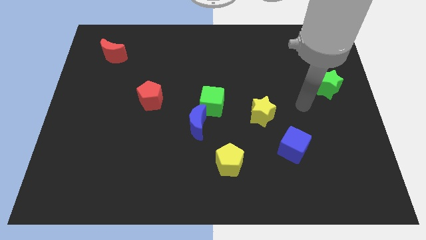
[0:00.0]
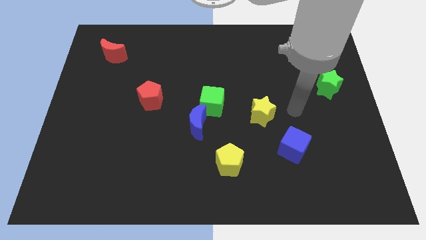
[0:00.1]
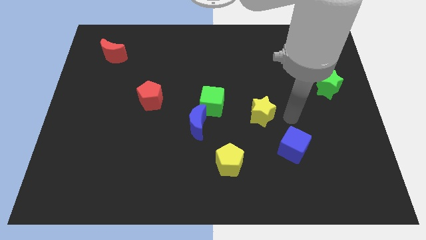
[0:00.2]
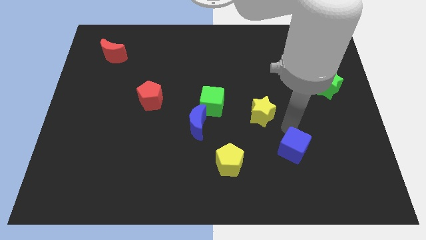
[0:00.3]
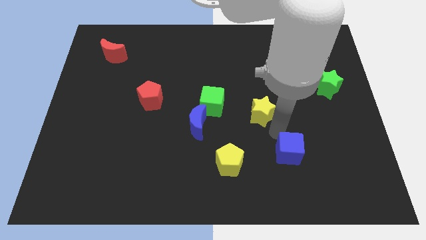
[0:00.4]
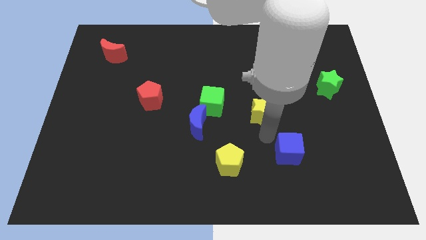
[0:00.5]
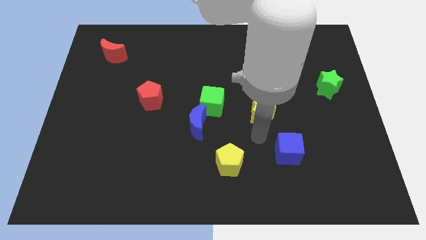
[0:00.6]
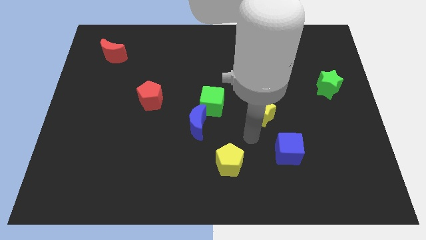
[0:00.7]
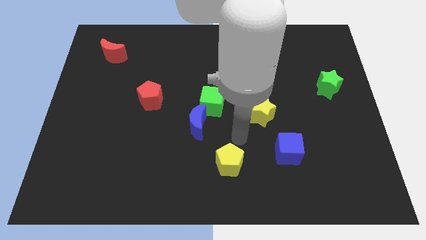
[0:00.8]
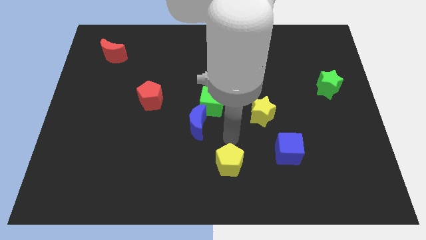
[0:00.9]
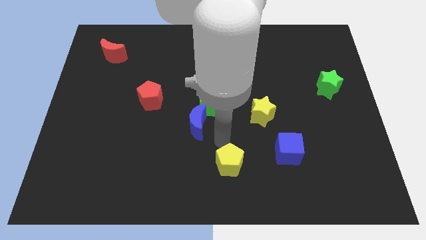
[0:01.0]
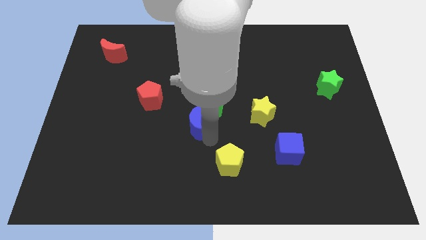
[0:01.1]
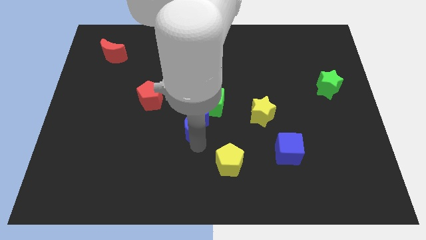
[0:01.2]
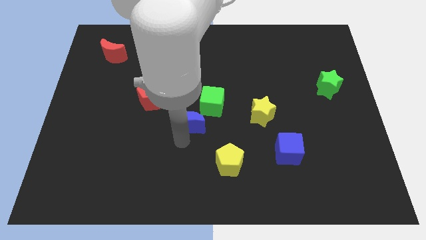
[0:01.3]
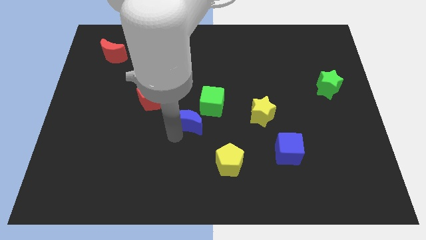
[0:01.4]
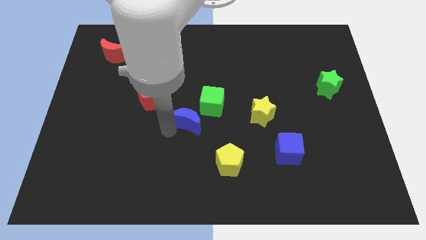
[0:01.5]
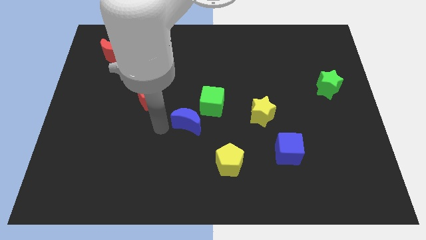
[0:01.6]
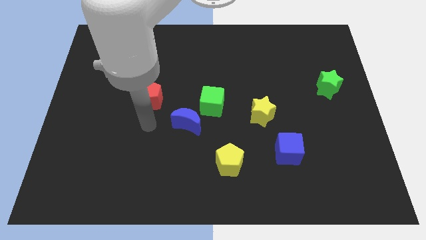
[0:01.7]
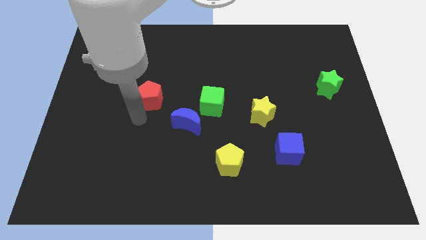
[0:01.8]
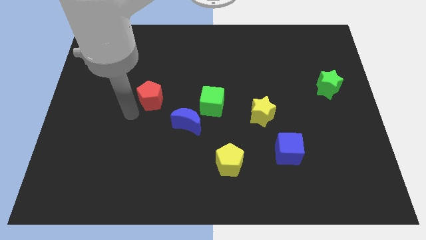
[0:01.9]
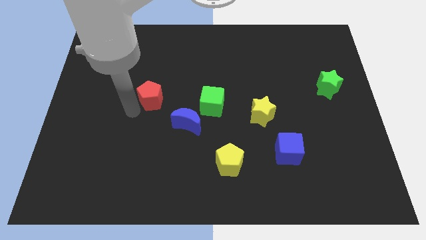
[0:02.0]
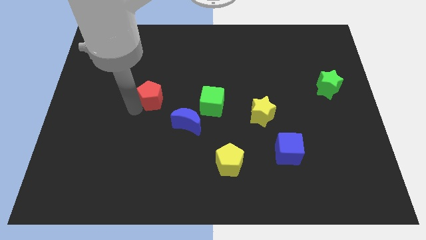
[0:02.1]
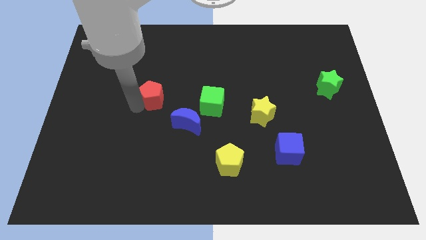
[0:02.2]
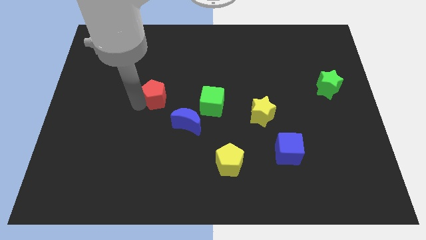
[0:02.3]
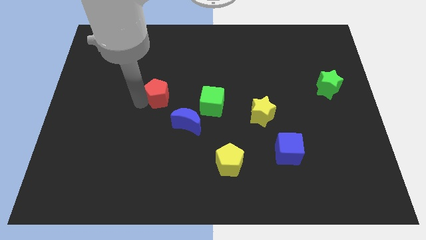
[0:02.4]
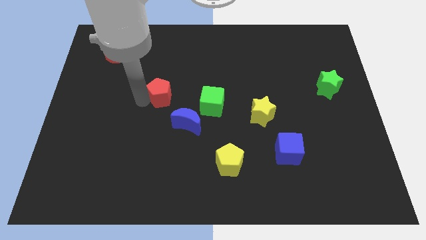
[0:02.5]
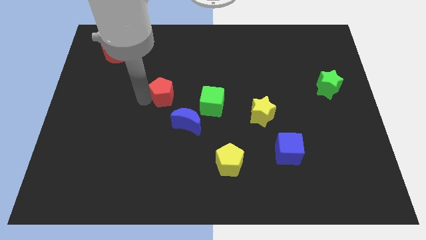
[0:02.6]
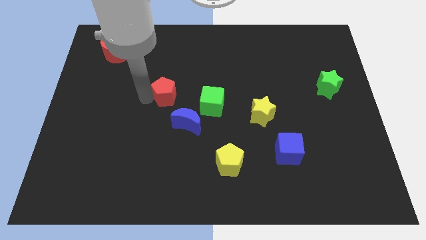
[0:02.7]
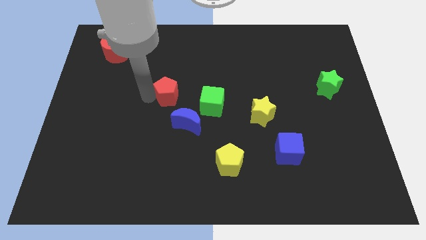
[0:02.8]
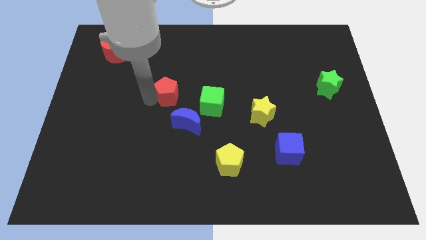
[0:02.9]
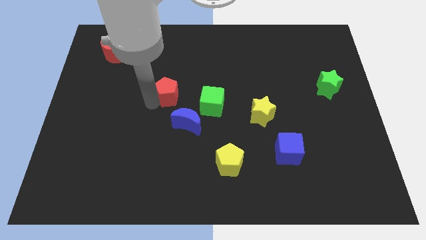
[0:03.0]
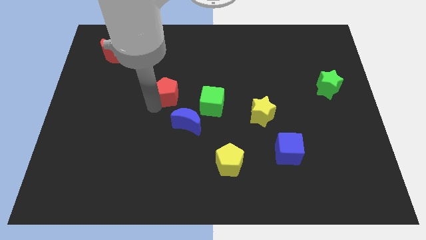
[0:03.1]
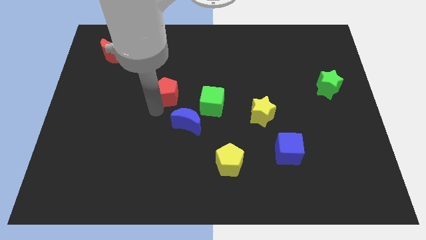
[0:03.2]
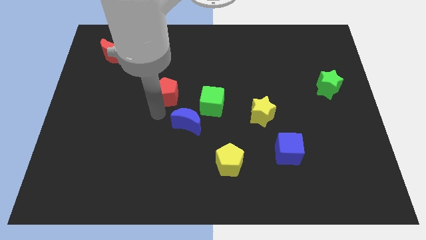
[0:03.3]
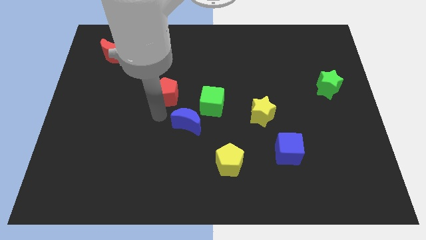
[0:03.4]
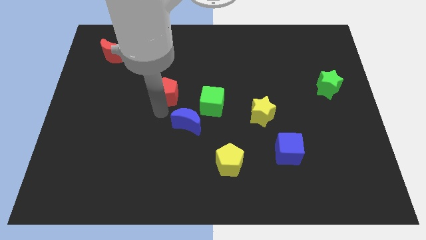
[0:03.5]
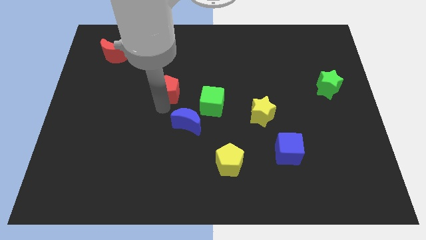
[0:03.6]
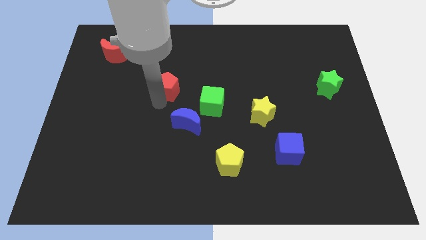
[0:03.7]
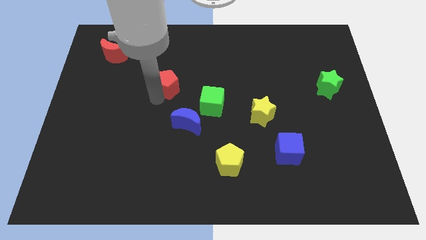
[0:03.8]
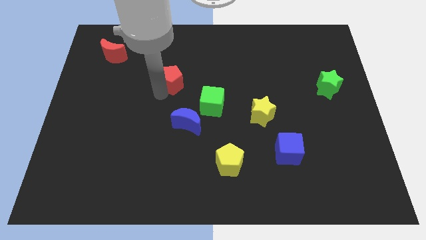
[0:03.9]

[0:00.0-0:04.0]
slightly push the red pentagon upwards and to the right

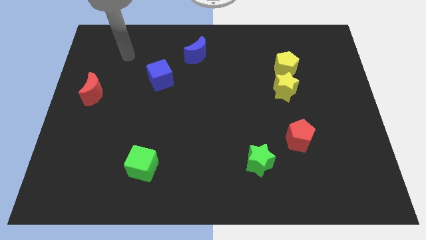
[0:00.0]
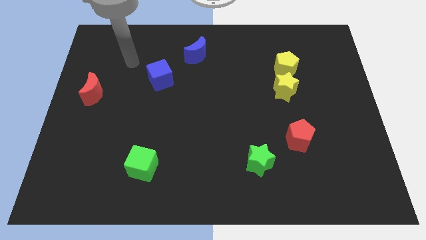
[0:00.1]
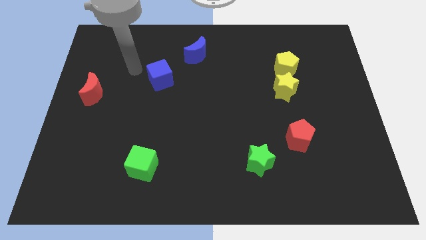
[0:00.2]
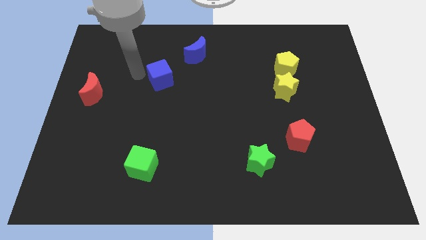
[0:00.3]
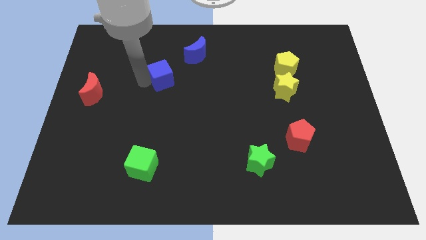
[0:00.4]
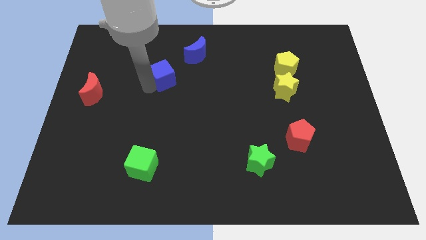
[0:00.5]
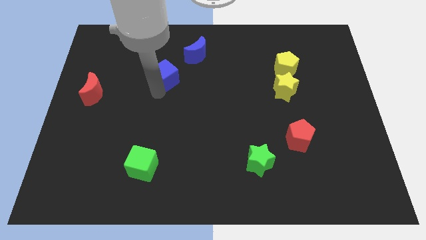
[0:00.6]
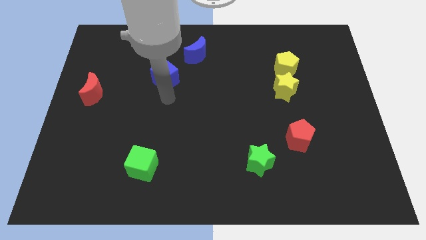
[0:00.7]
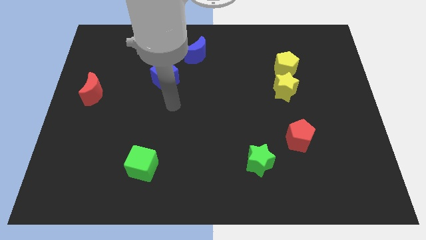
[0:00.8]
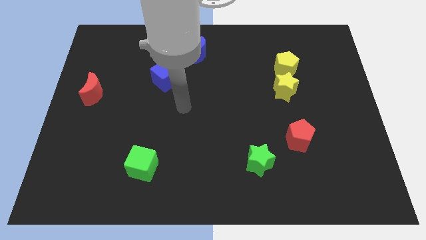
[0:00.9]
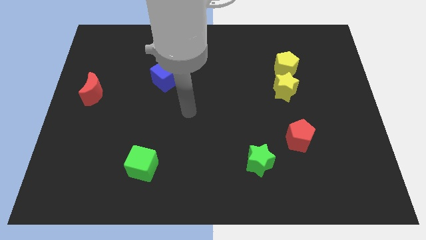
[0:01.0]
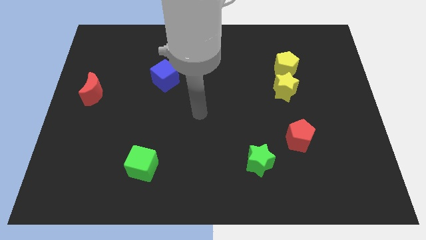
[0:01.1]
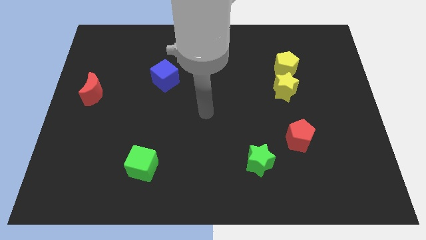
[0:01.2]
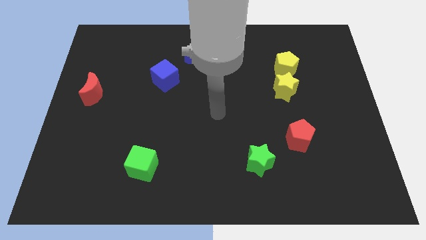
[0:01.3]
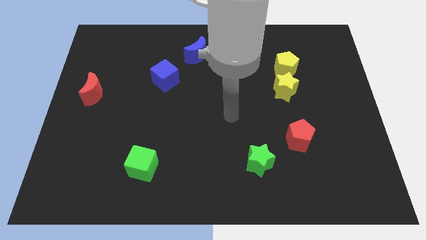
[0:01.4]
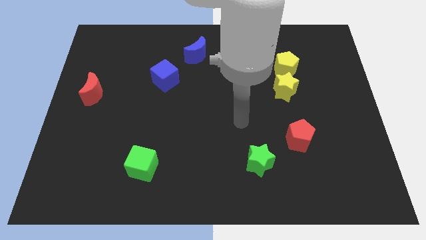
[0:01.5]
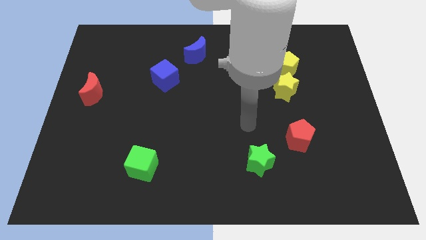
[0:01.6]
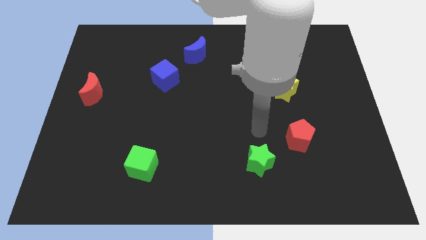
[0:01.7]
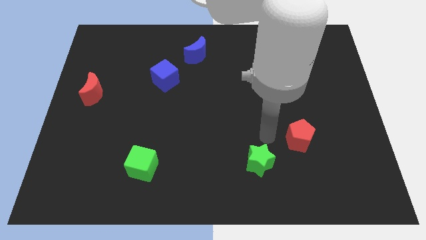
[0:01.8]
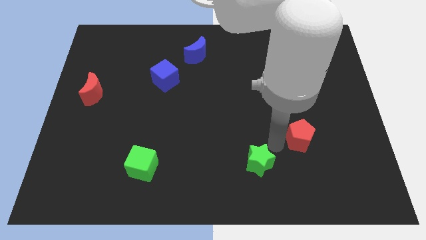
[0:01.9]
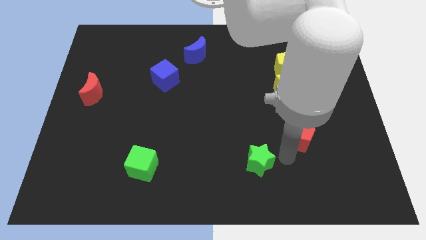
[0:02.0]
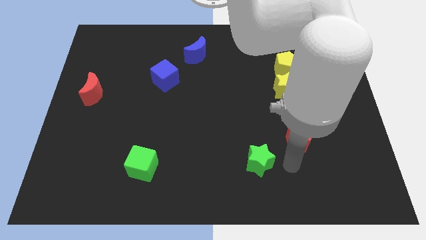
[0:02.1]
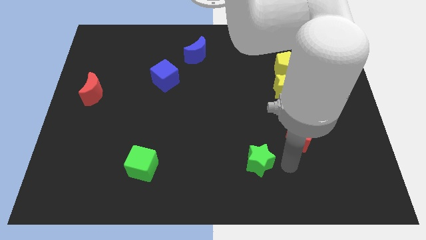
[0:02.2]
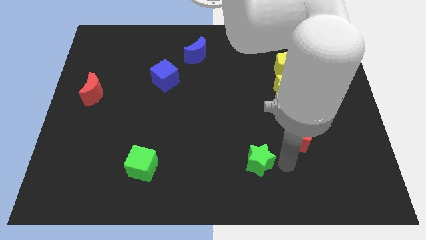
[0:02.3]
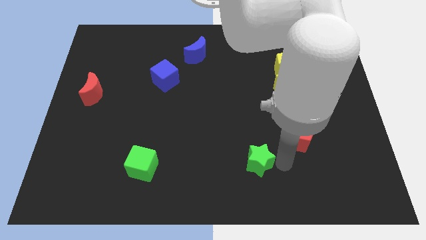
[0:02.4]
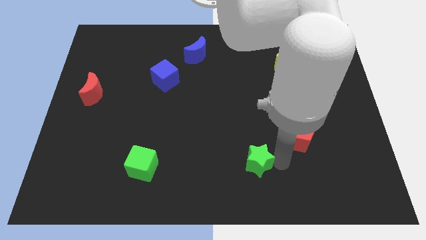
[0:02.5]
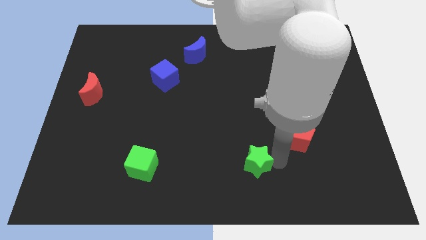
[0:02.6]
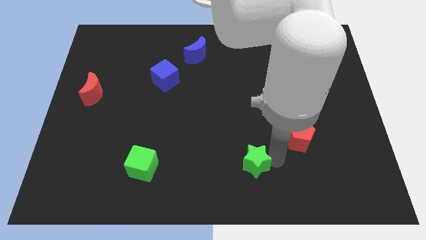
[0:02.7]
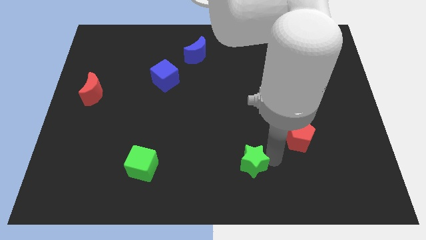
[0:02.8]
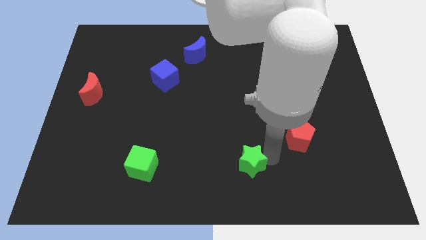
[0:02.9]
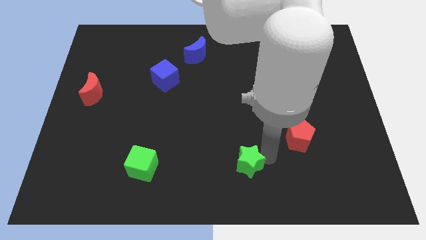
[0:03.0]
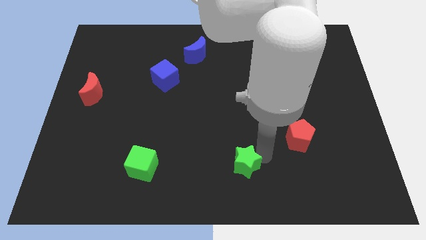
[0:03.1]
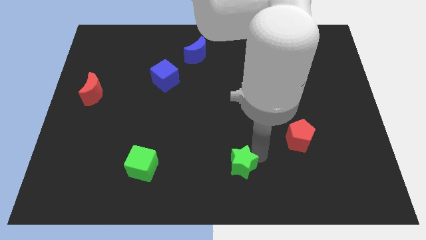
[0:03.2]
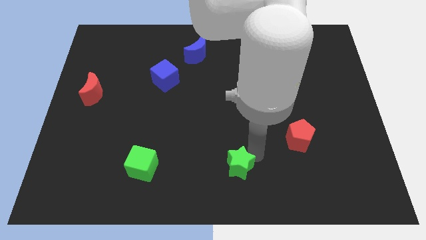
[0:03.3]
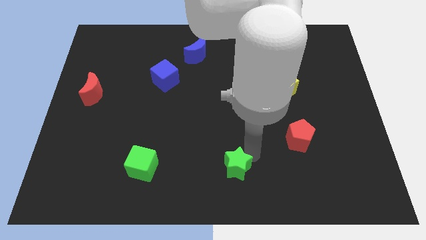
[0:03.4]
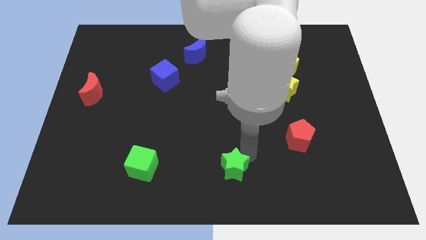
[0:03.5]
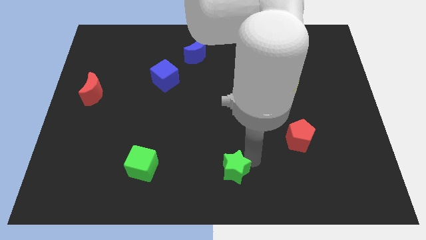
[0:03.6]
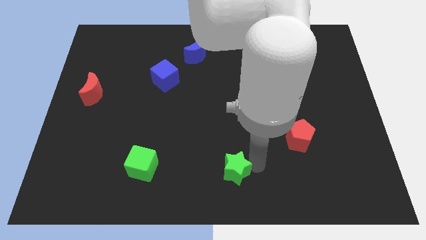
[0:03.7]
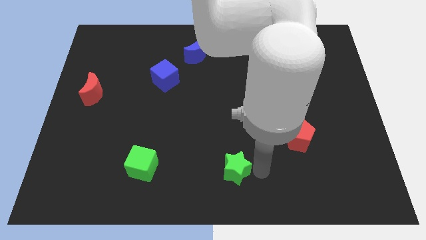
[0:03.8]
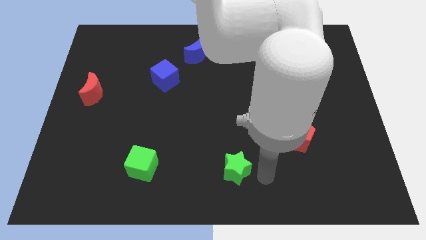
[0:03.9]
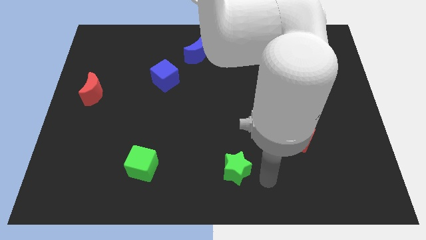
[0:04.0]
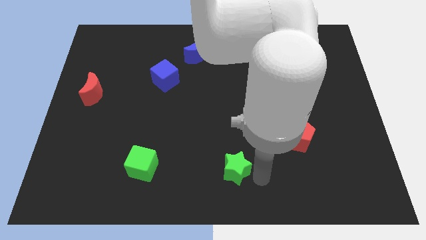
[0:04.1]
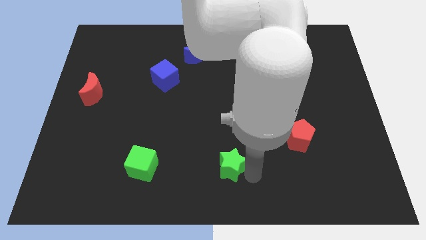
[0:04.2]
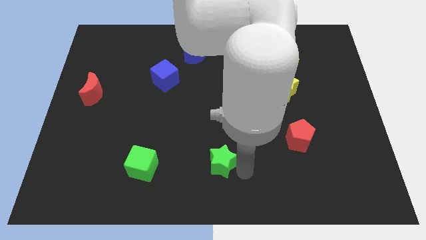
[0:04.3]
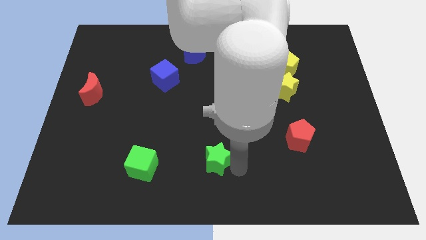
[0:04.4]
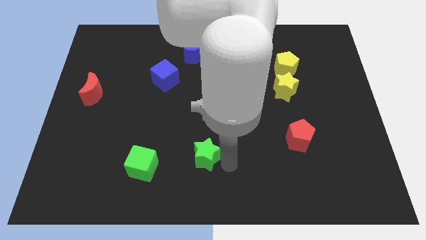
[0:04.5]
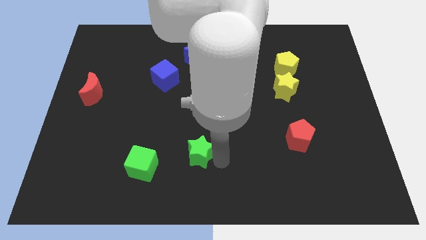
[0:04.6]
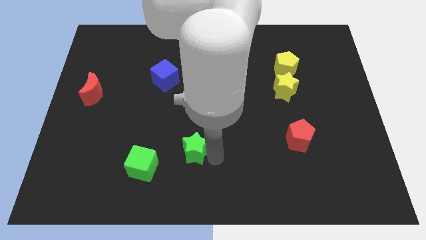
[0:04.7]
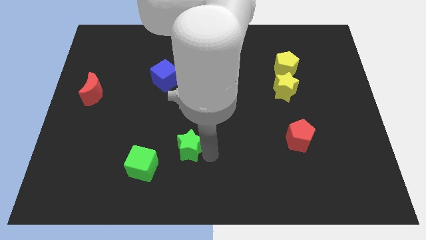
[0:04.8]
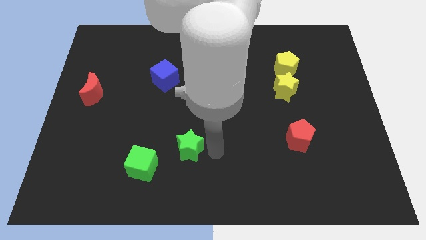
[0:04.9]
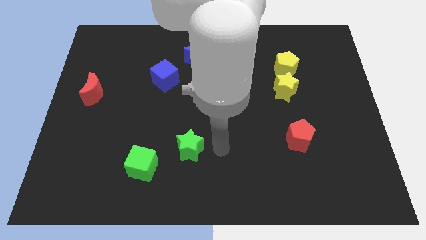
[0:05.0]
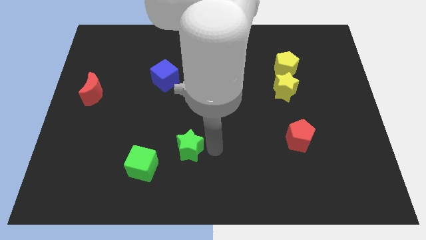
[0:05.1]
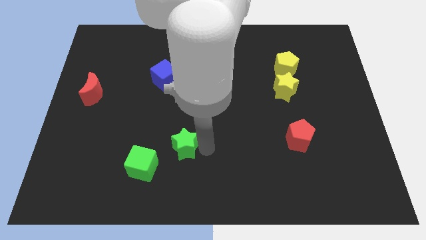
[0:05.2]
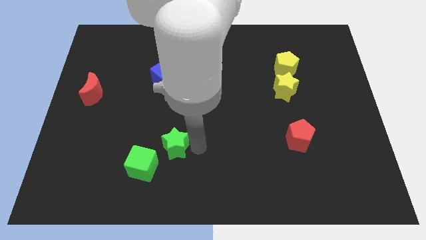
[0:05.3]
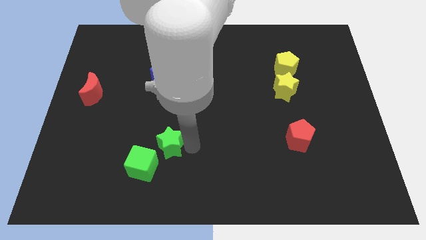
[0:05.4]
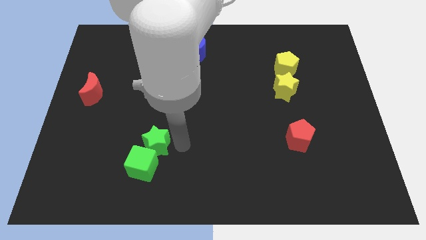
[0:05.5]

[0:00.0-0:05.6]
push the green star to the left
